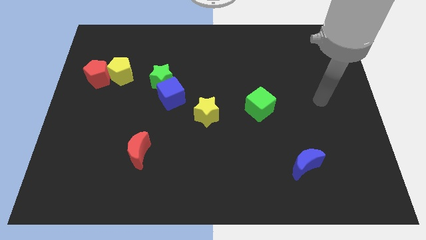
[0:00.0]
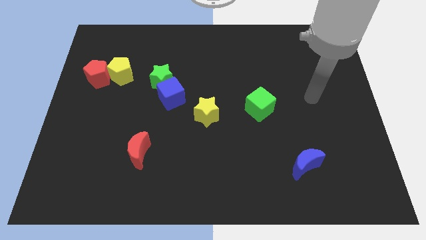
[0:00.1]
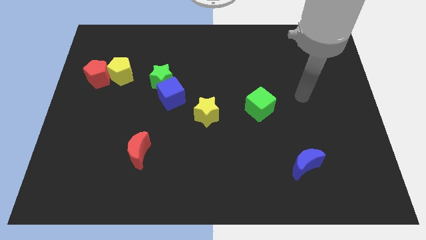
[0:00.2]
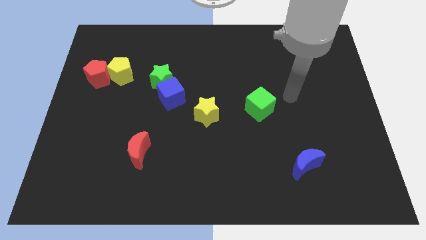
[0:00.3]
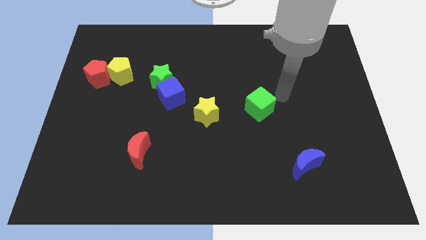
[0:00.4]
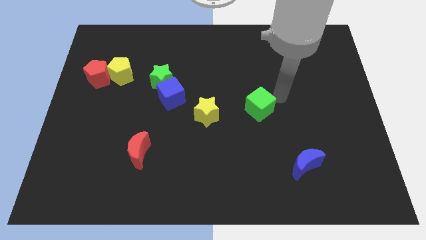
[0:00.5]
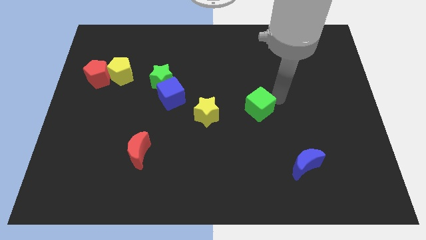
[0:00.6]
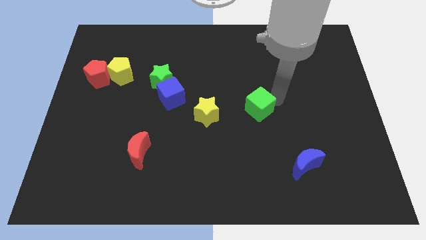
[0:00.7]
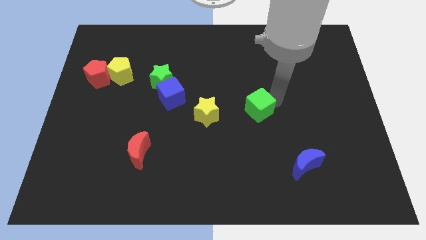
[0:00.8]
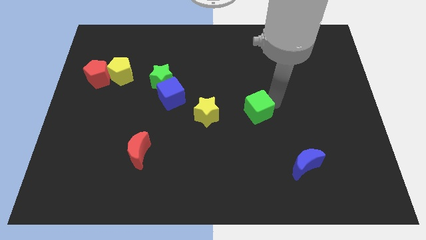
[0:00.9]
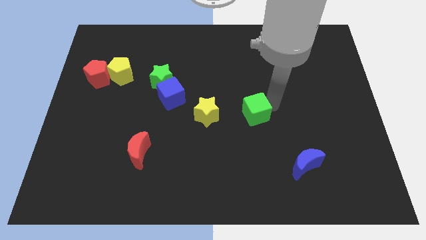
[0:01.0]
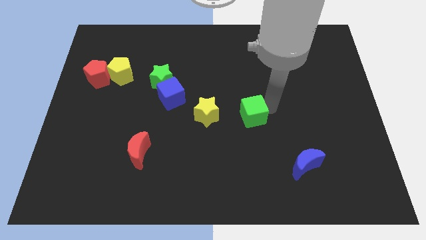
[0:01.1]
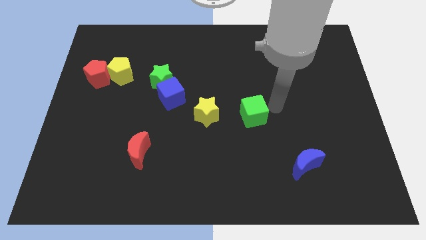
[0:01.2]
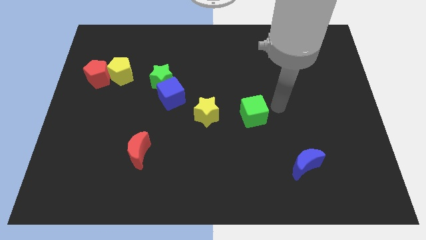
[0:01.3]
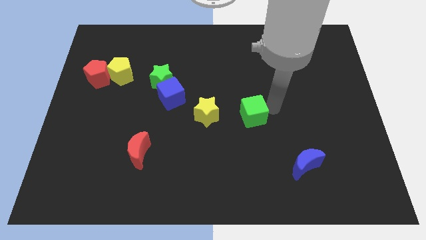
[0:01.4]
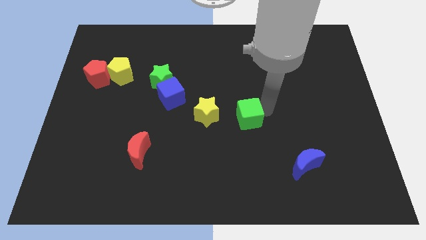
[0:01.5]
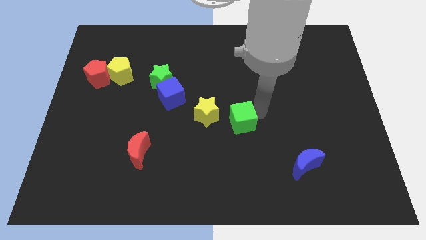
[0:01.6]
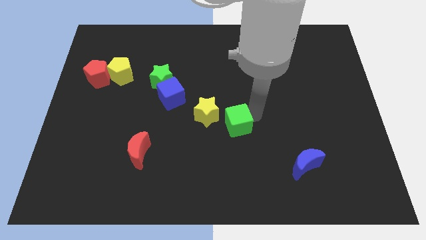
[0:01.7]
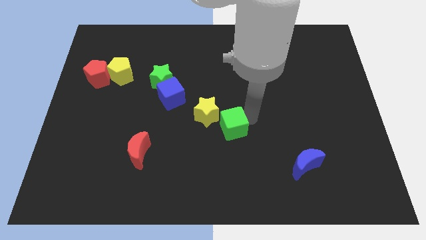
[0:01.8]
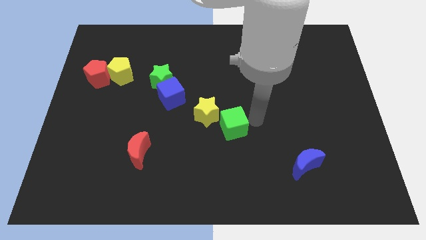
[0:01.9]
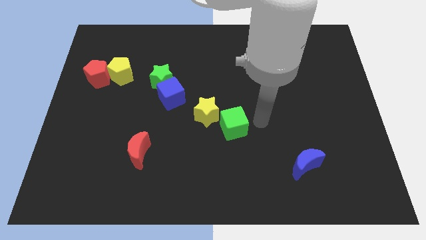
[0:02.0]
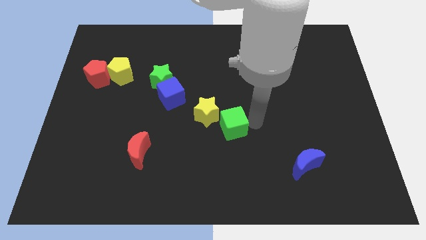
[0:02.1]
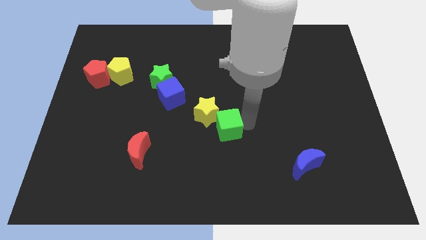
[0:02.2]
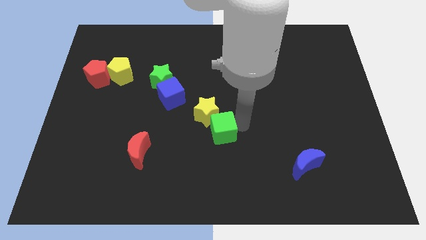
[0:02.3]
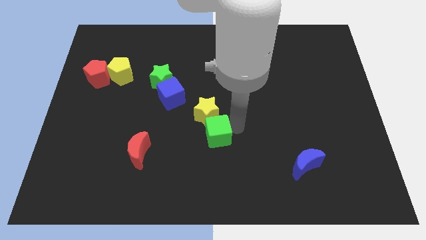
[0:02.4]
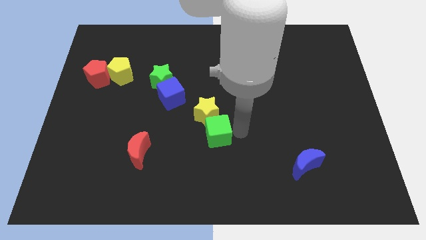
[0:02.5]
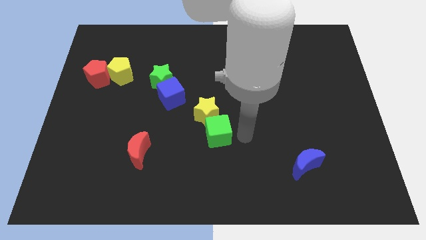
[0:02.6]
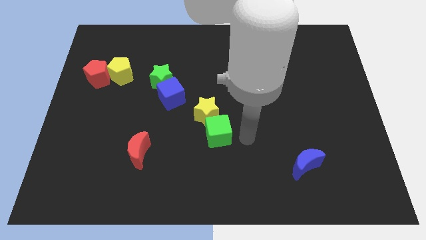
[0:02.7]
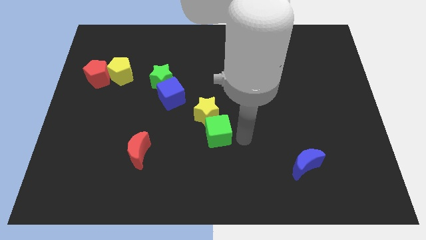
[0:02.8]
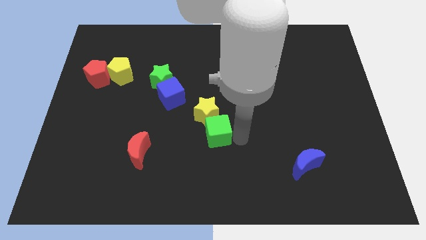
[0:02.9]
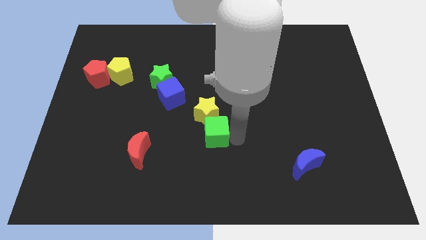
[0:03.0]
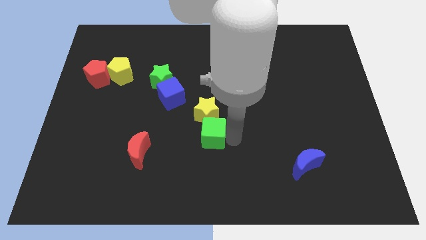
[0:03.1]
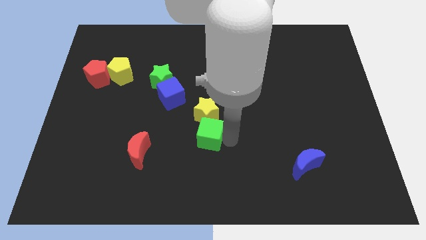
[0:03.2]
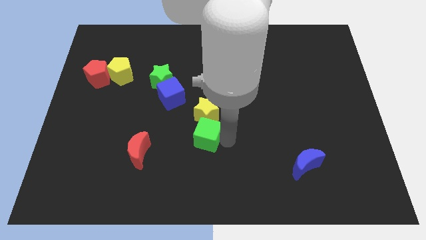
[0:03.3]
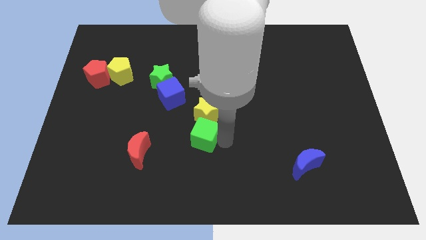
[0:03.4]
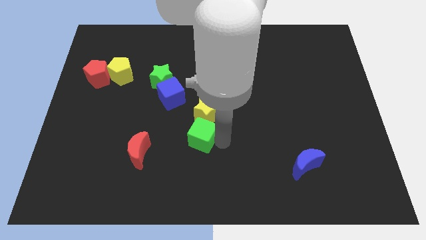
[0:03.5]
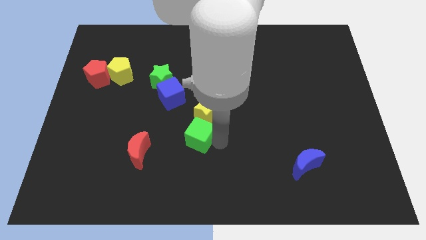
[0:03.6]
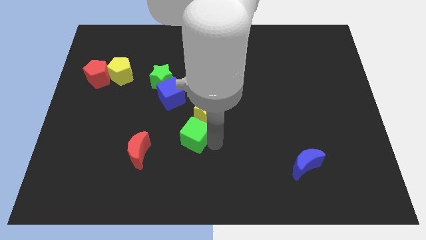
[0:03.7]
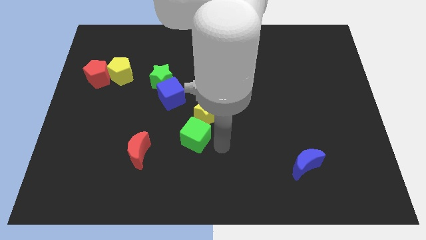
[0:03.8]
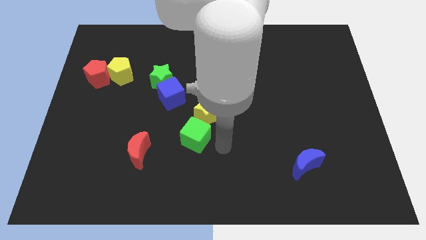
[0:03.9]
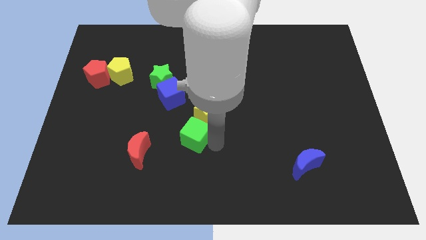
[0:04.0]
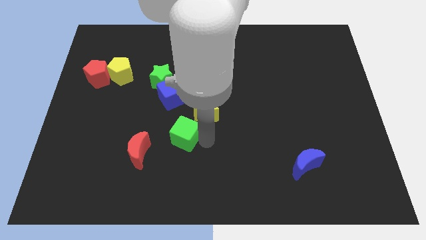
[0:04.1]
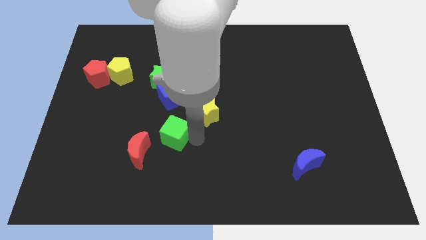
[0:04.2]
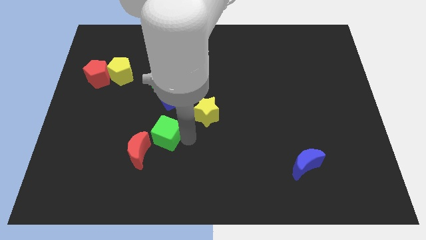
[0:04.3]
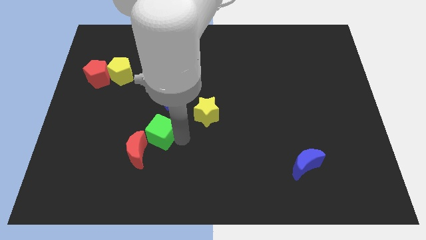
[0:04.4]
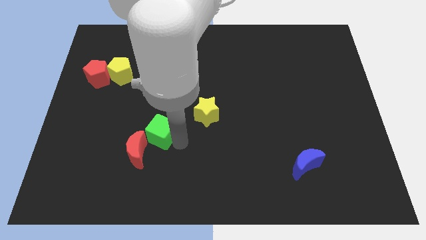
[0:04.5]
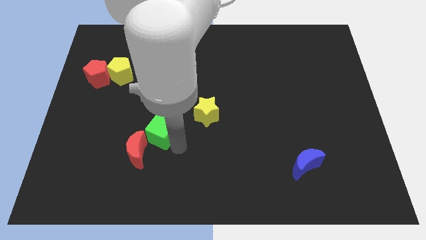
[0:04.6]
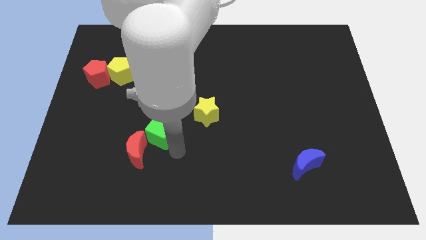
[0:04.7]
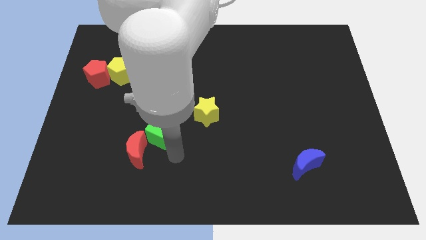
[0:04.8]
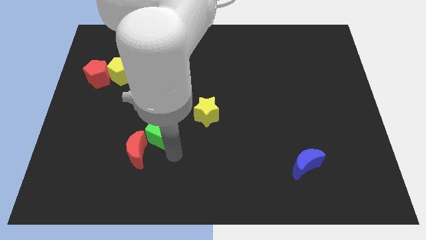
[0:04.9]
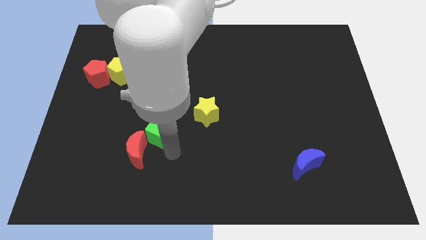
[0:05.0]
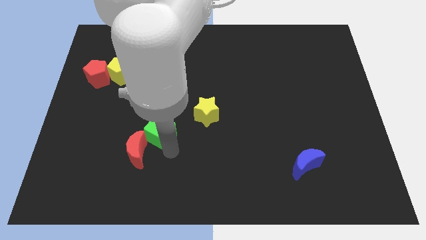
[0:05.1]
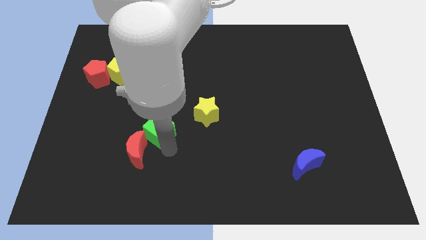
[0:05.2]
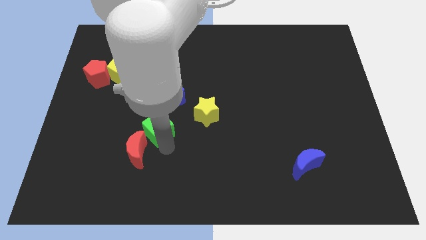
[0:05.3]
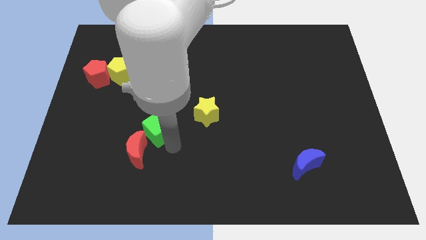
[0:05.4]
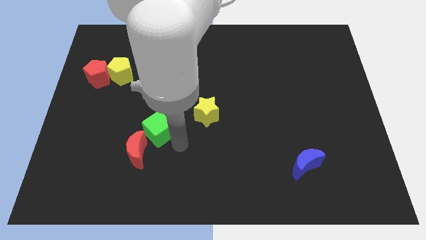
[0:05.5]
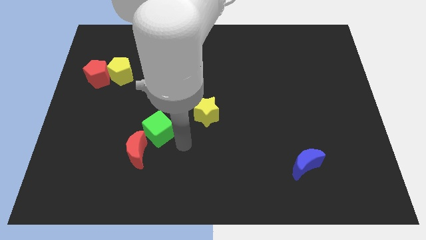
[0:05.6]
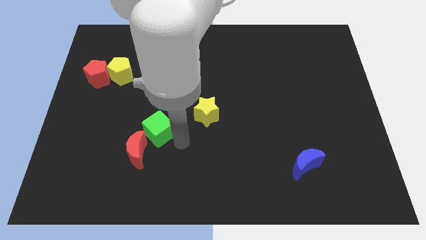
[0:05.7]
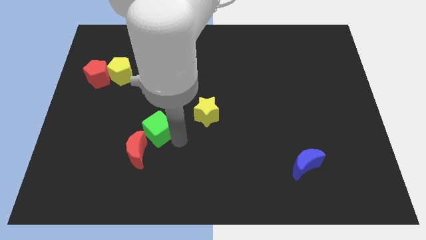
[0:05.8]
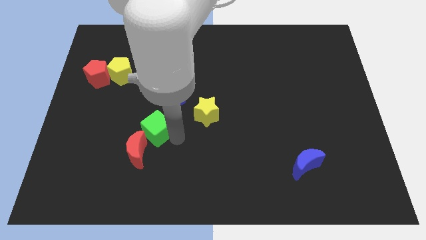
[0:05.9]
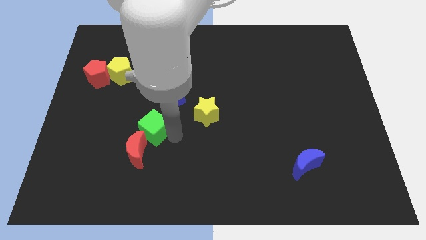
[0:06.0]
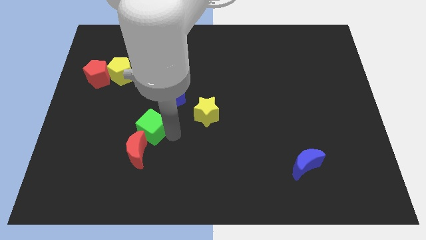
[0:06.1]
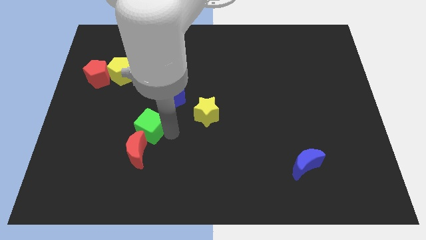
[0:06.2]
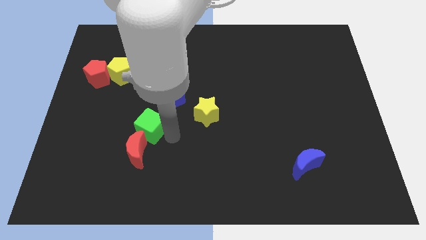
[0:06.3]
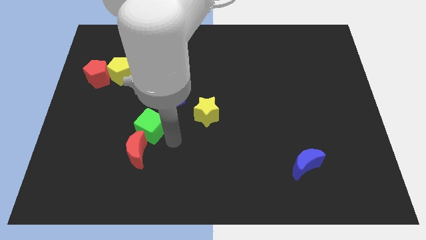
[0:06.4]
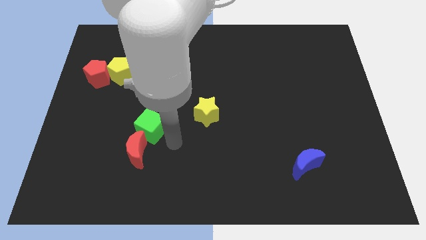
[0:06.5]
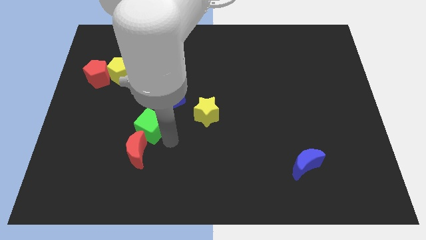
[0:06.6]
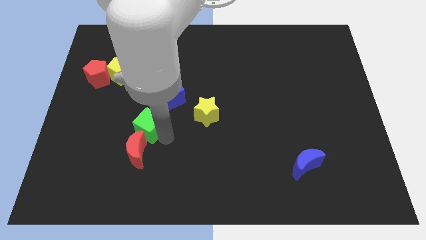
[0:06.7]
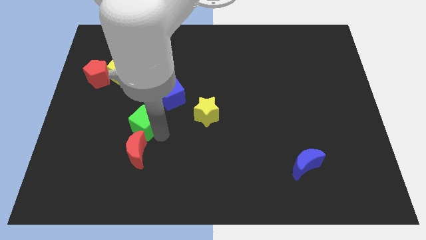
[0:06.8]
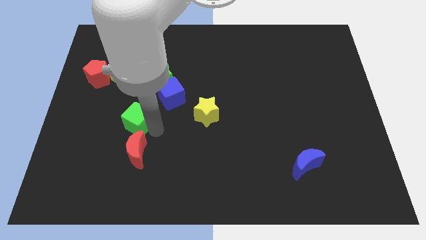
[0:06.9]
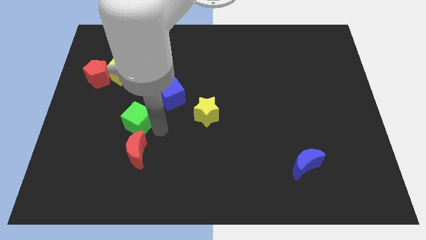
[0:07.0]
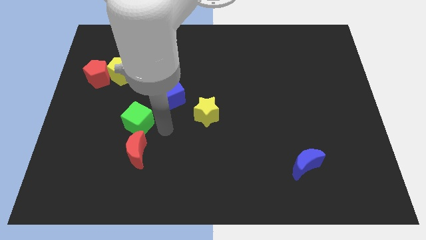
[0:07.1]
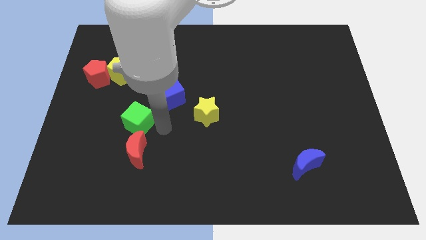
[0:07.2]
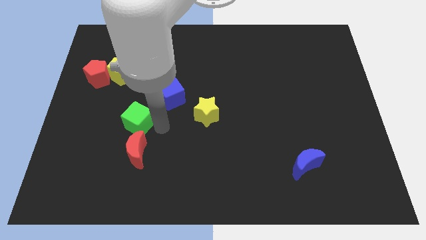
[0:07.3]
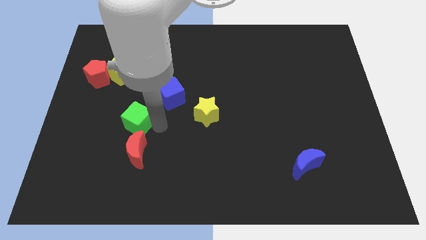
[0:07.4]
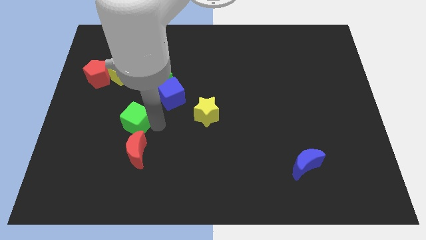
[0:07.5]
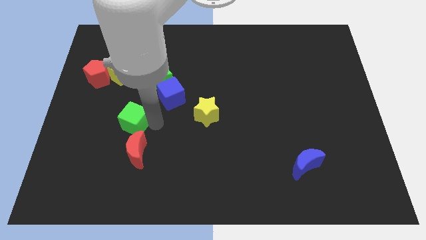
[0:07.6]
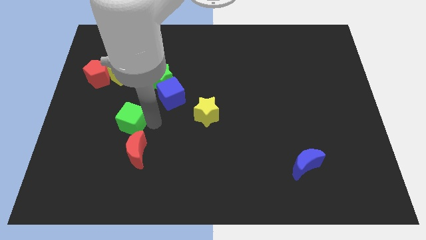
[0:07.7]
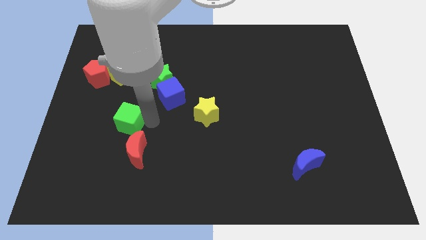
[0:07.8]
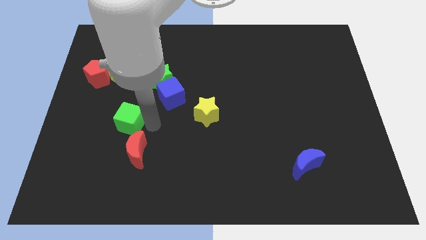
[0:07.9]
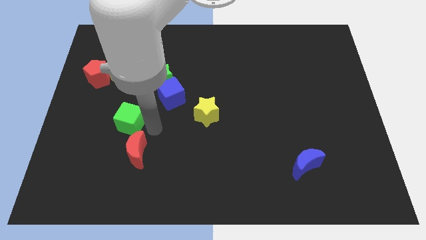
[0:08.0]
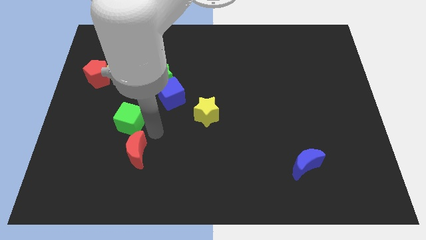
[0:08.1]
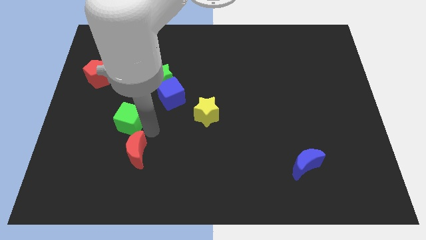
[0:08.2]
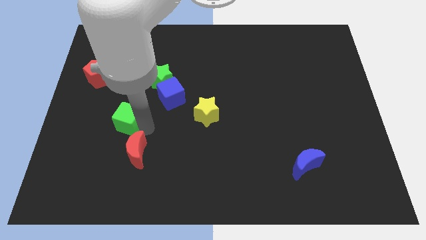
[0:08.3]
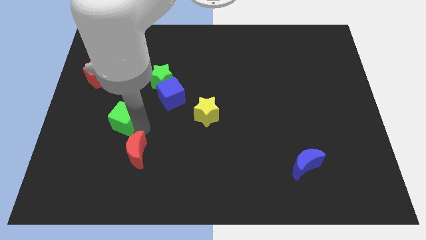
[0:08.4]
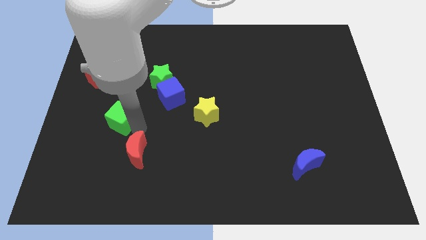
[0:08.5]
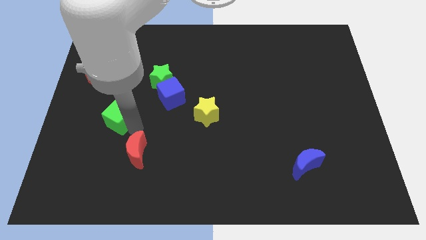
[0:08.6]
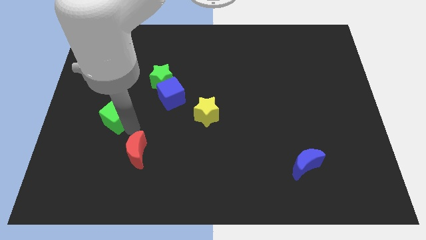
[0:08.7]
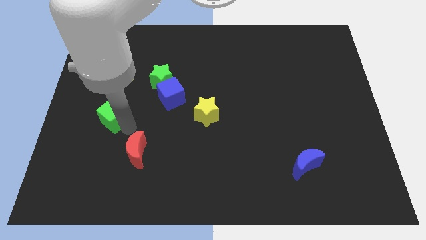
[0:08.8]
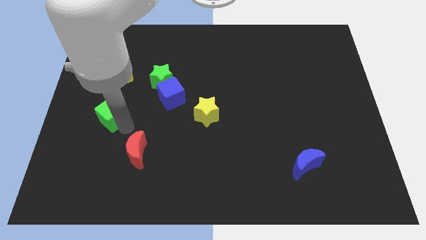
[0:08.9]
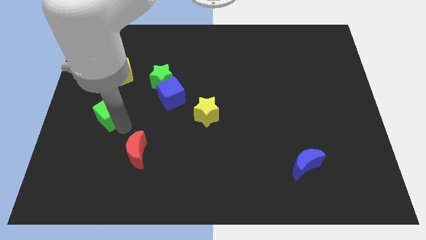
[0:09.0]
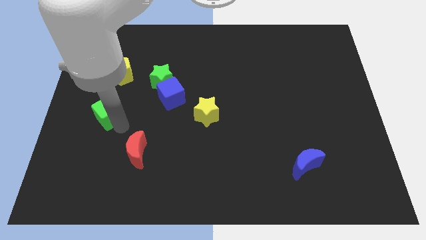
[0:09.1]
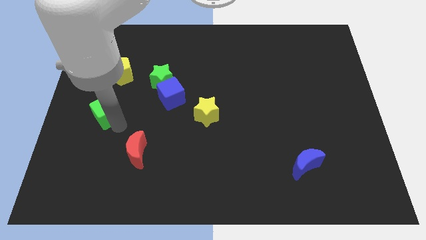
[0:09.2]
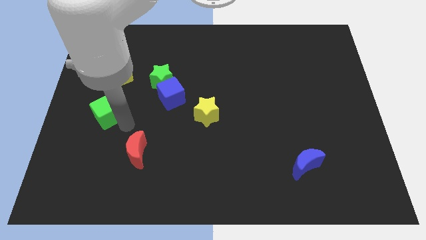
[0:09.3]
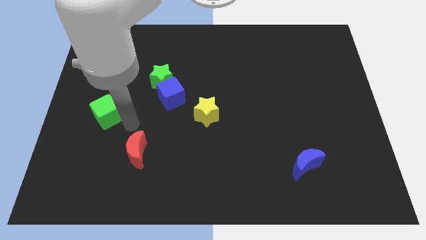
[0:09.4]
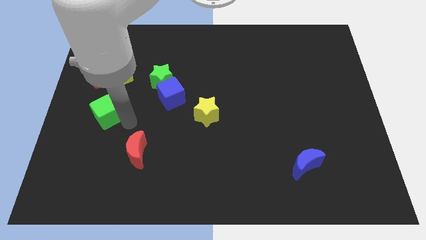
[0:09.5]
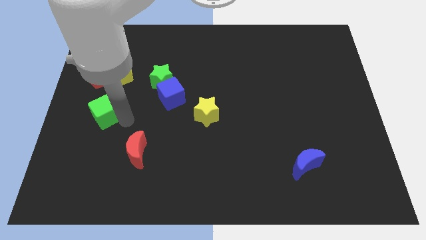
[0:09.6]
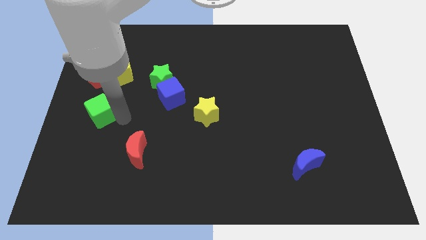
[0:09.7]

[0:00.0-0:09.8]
push the green cube to the left side of the board
